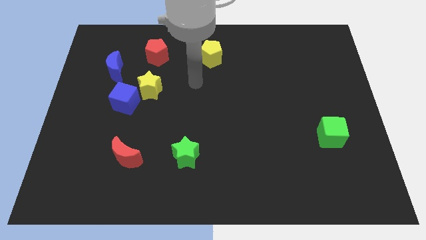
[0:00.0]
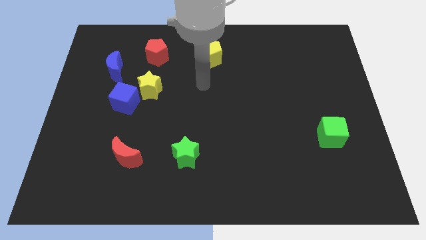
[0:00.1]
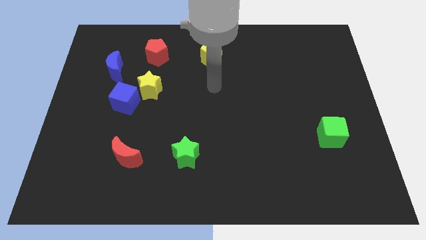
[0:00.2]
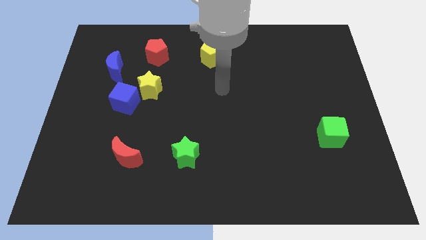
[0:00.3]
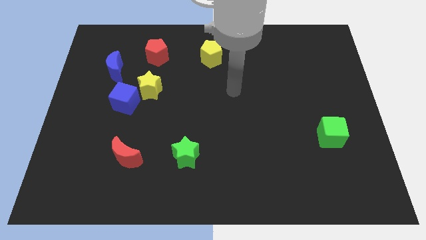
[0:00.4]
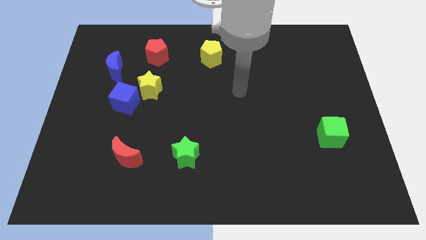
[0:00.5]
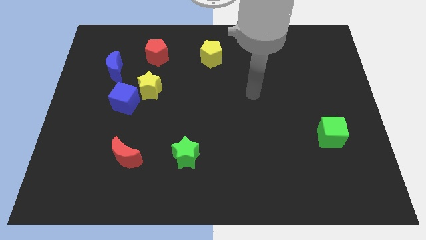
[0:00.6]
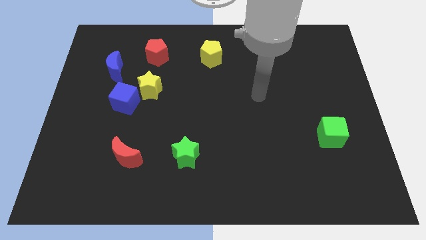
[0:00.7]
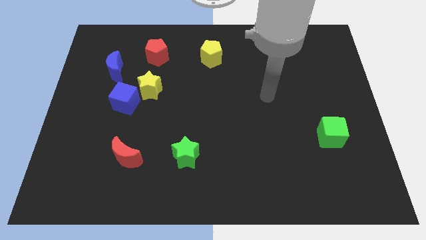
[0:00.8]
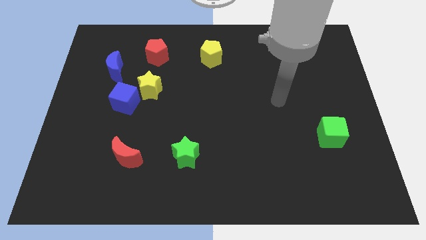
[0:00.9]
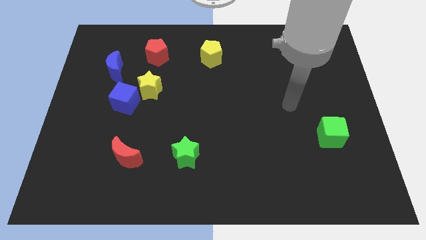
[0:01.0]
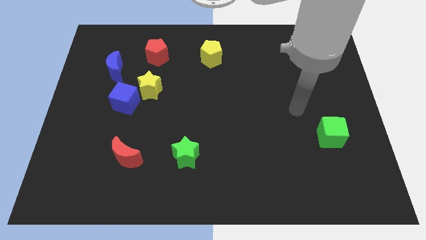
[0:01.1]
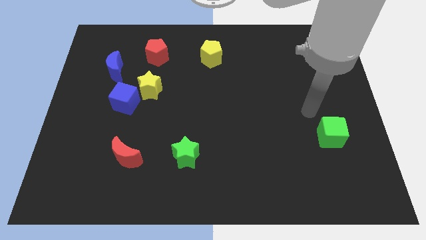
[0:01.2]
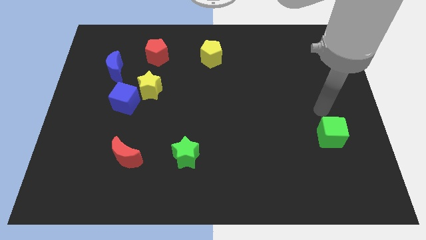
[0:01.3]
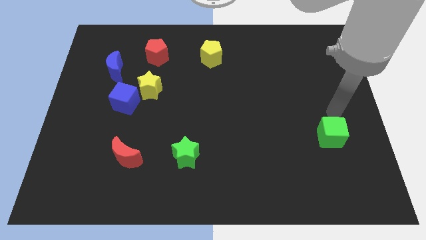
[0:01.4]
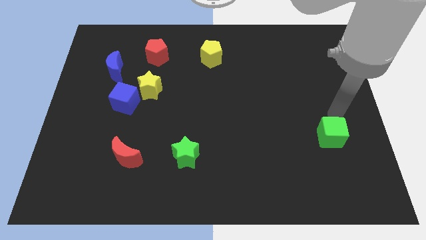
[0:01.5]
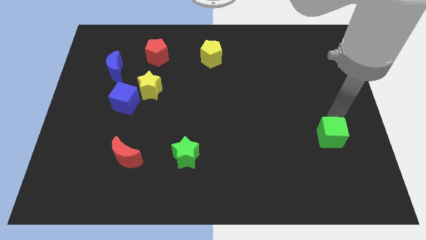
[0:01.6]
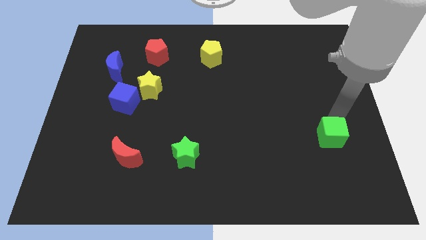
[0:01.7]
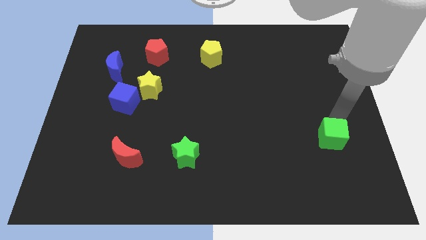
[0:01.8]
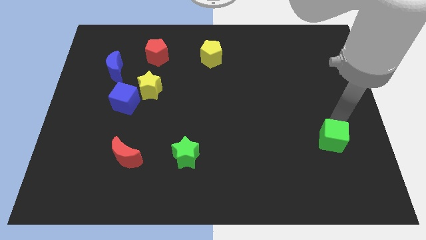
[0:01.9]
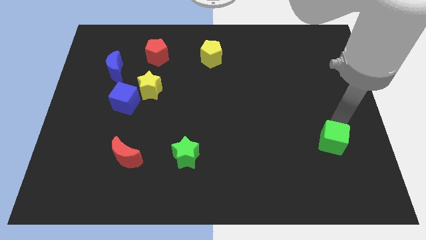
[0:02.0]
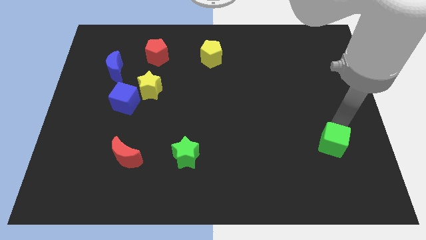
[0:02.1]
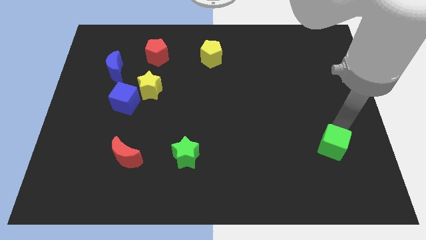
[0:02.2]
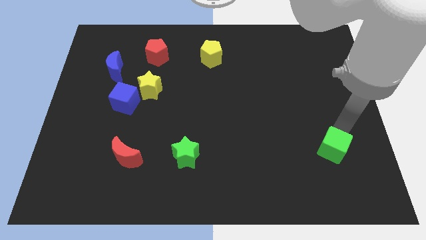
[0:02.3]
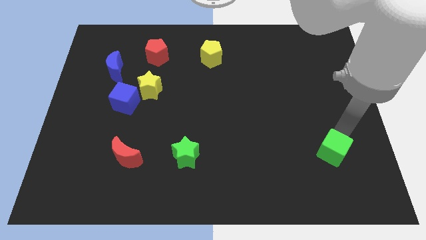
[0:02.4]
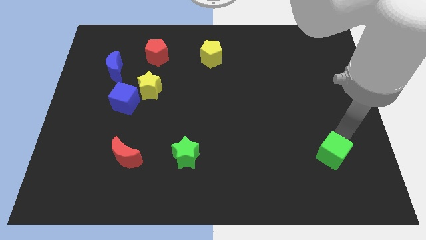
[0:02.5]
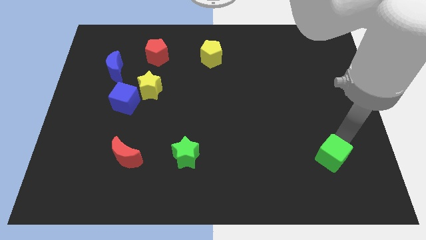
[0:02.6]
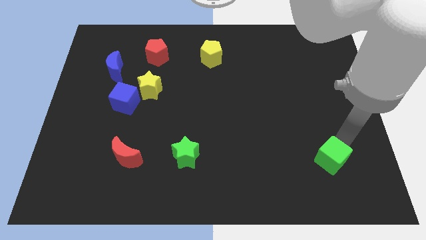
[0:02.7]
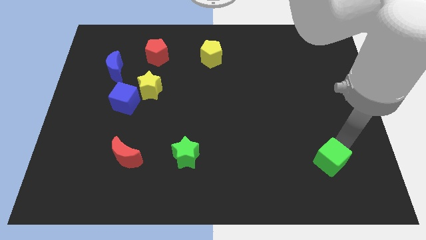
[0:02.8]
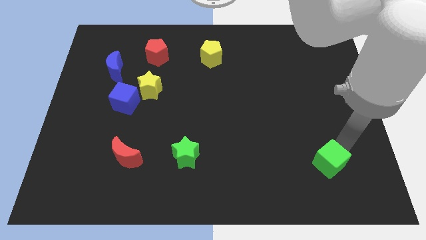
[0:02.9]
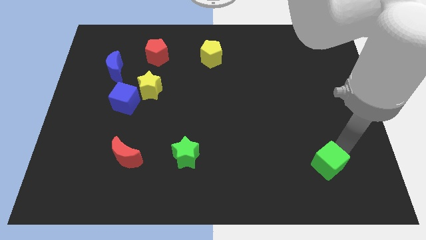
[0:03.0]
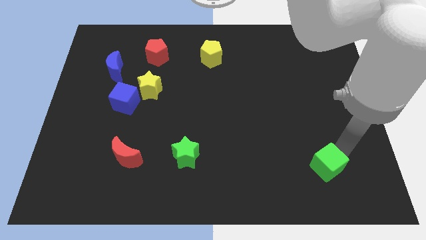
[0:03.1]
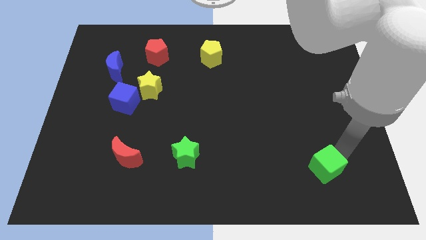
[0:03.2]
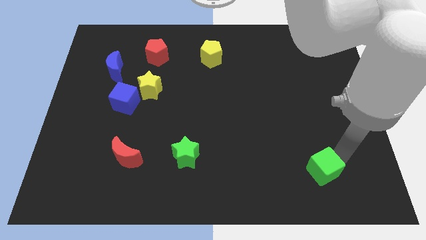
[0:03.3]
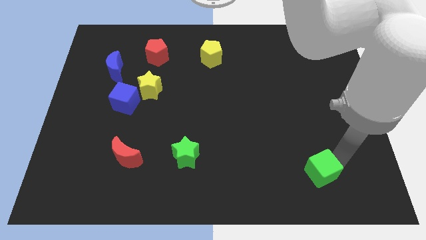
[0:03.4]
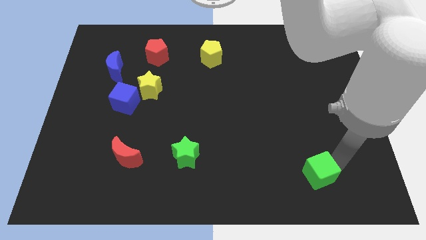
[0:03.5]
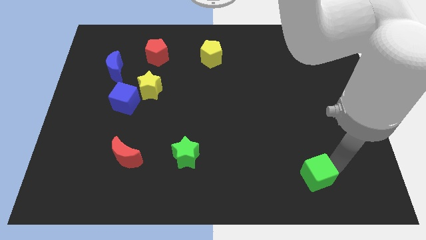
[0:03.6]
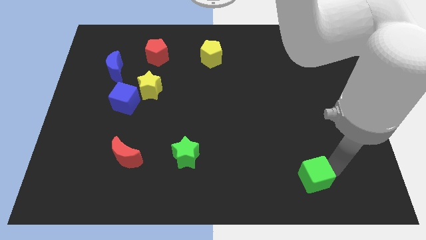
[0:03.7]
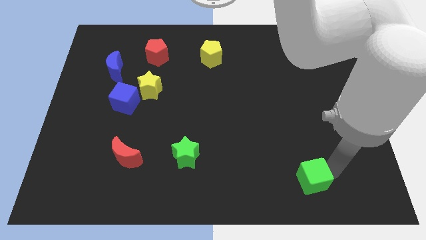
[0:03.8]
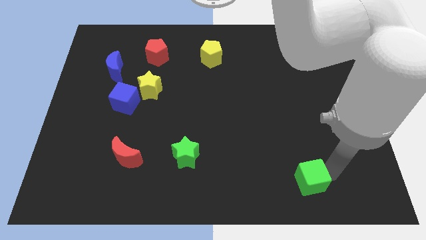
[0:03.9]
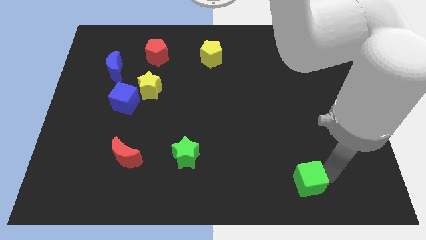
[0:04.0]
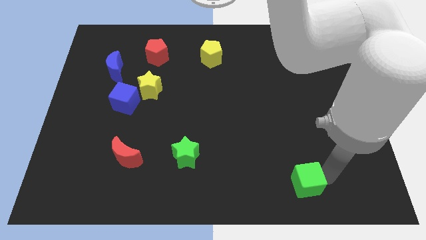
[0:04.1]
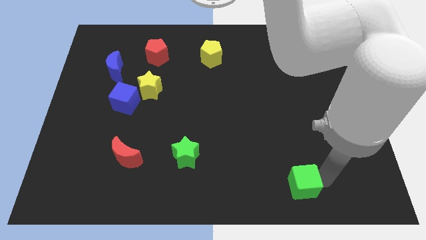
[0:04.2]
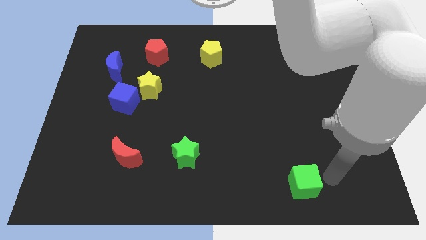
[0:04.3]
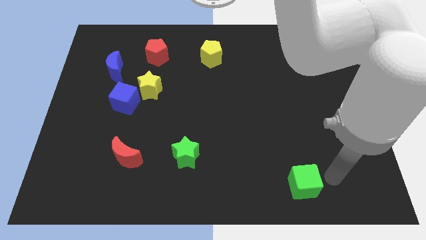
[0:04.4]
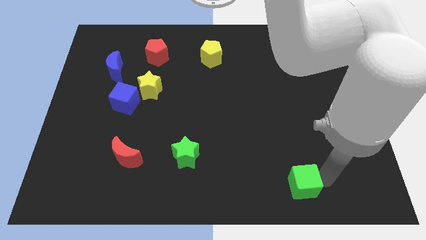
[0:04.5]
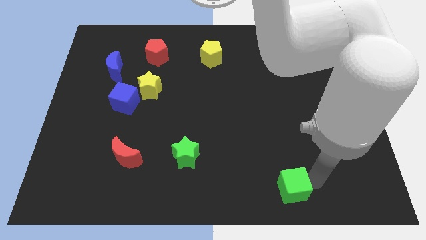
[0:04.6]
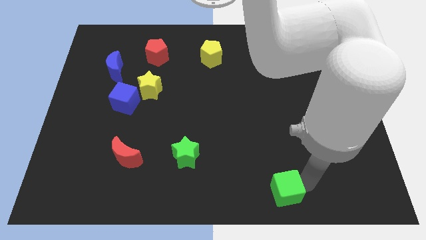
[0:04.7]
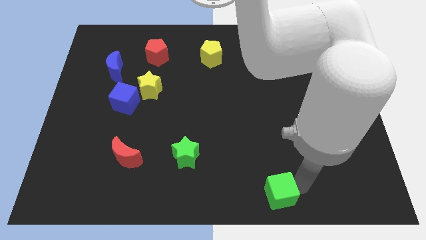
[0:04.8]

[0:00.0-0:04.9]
put the green cube to the bottom

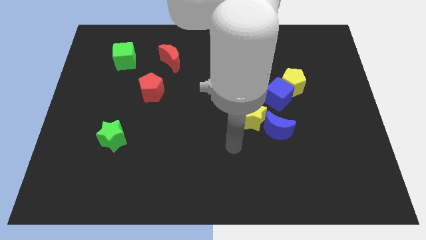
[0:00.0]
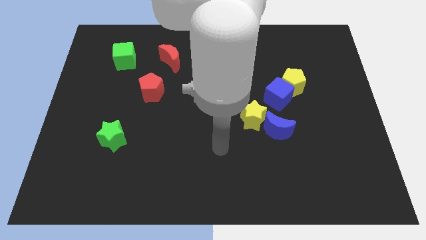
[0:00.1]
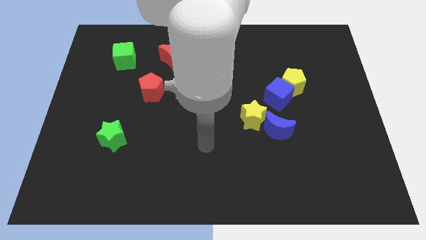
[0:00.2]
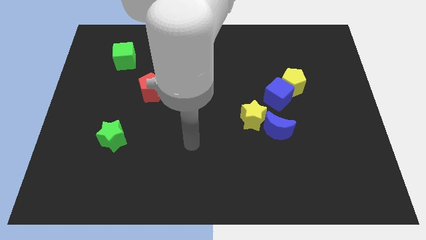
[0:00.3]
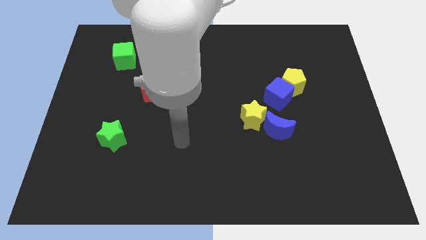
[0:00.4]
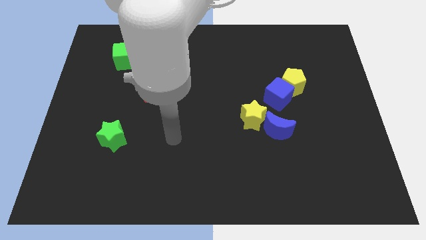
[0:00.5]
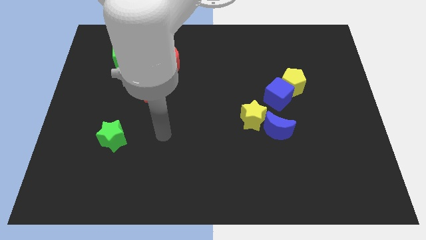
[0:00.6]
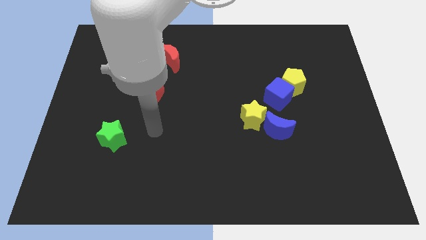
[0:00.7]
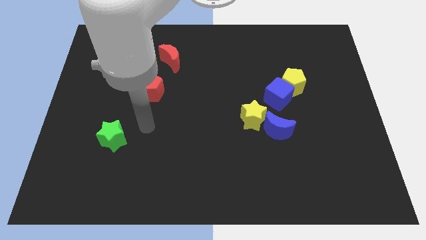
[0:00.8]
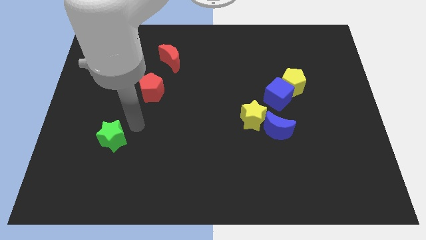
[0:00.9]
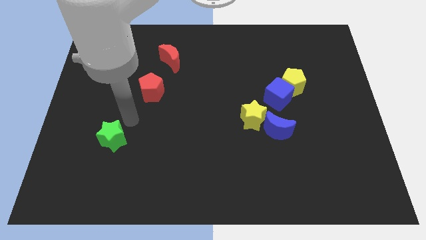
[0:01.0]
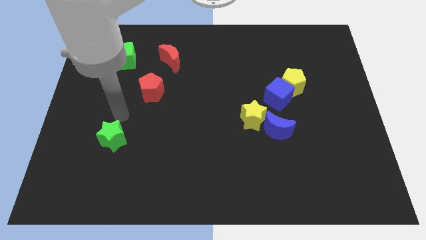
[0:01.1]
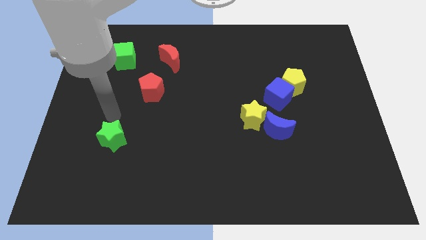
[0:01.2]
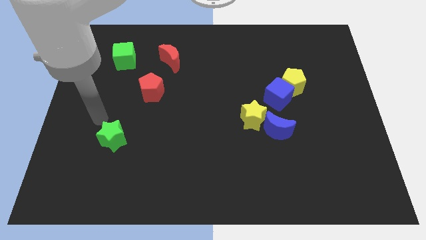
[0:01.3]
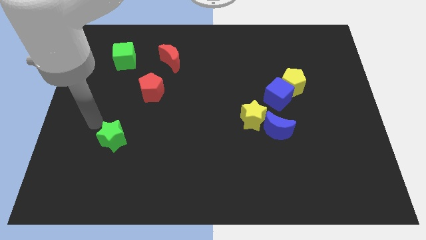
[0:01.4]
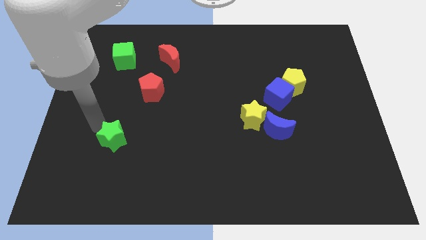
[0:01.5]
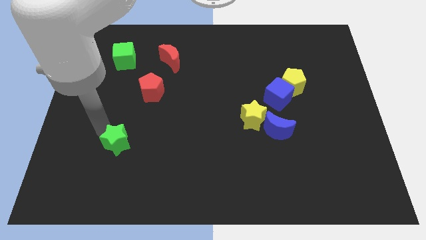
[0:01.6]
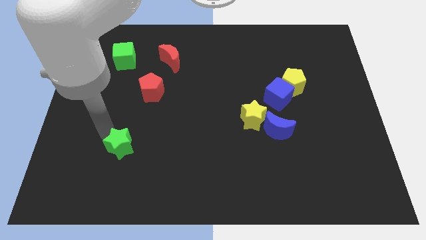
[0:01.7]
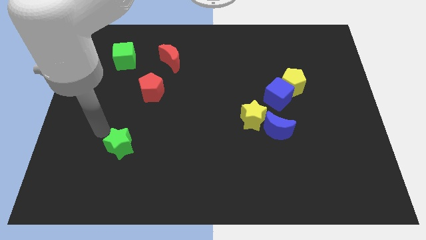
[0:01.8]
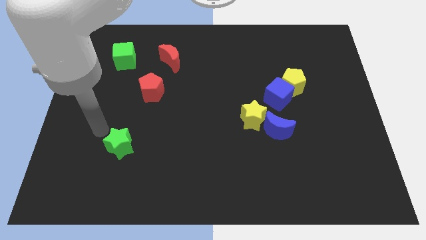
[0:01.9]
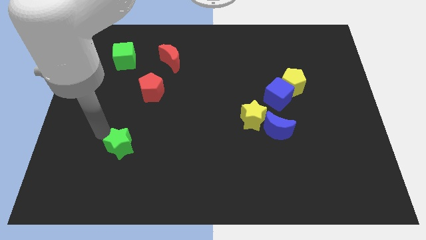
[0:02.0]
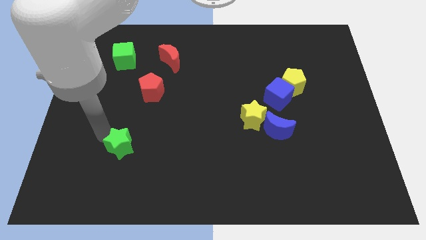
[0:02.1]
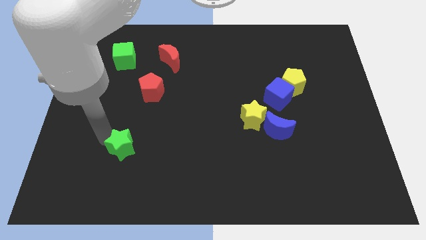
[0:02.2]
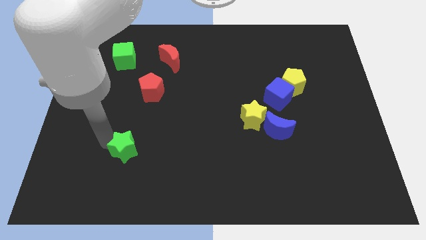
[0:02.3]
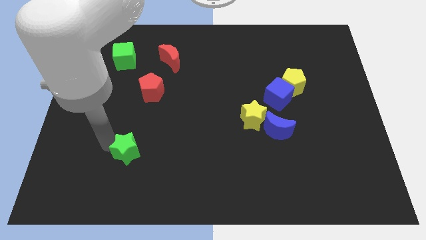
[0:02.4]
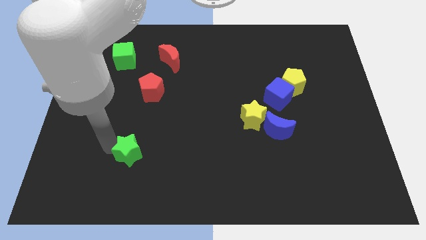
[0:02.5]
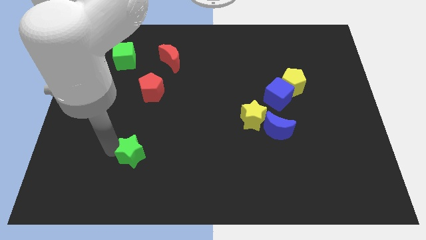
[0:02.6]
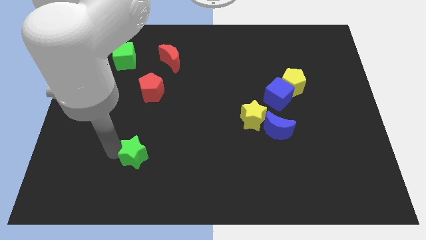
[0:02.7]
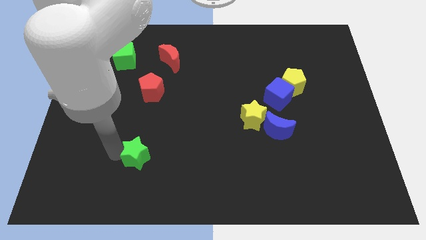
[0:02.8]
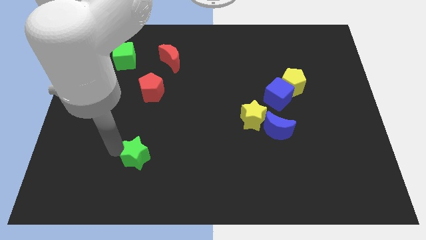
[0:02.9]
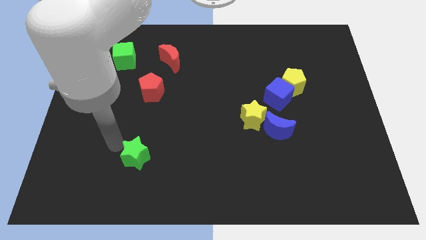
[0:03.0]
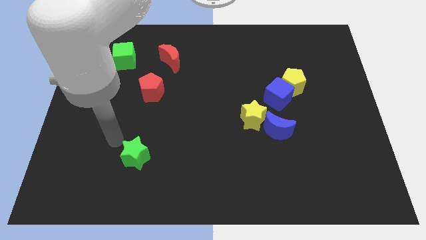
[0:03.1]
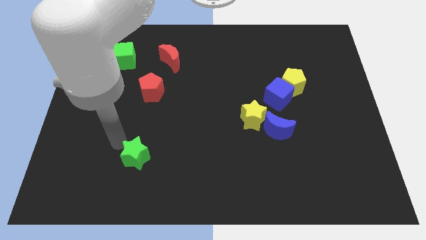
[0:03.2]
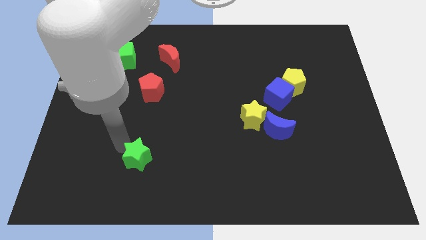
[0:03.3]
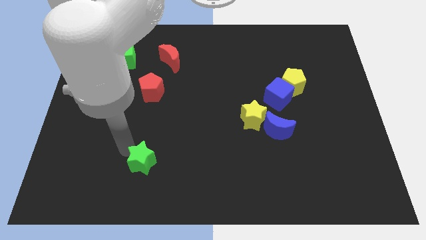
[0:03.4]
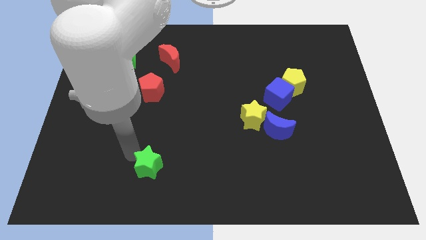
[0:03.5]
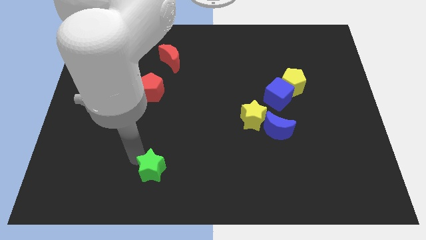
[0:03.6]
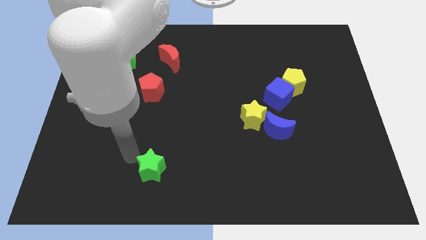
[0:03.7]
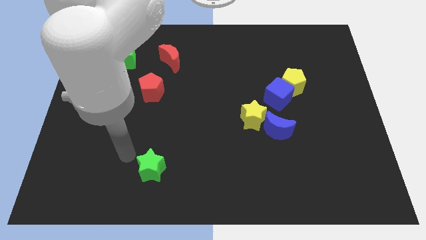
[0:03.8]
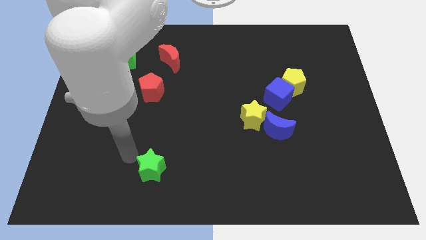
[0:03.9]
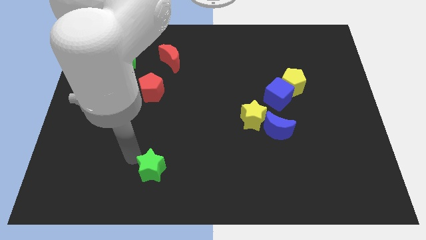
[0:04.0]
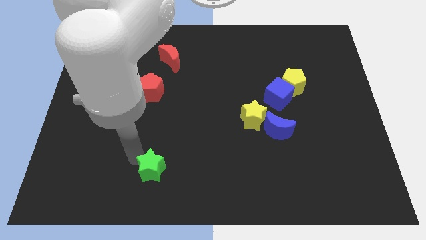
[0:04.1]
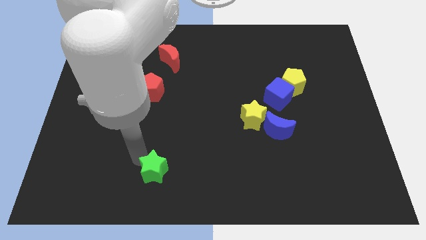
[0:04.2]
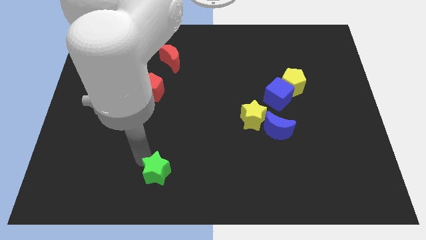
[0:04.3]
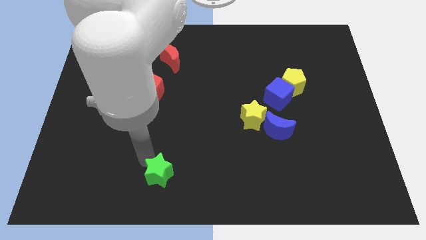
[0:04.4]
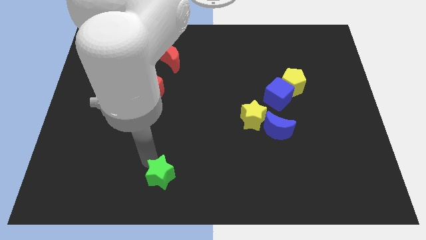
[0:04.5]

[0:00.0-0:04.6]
slide the green star to the bottom side
